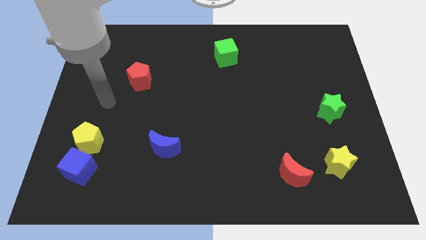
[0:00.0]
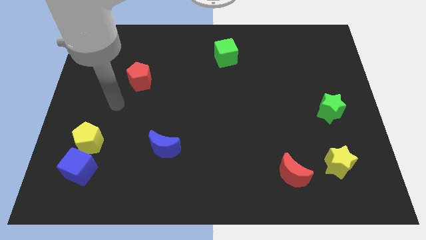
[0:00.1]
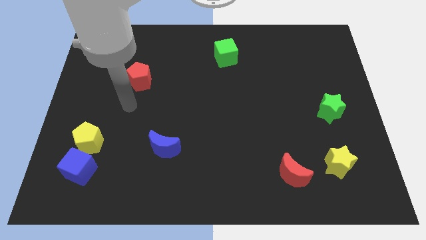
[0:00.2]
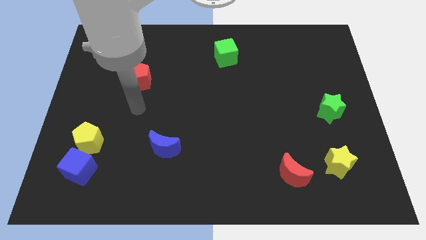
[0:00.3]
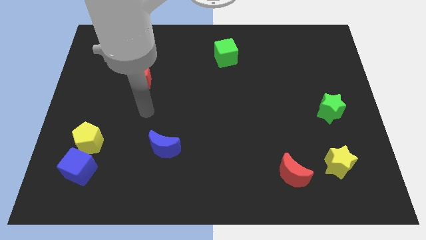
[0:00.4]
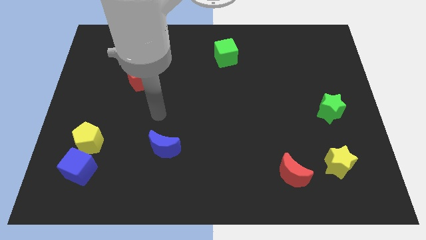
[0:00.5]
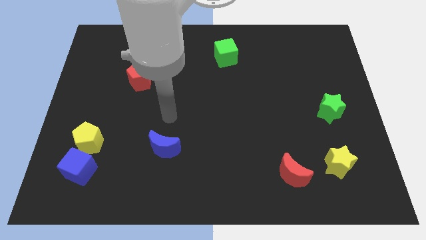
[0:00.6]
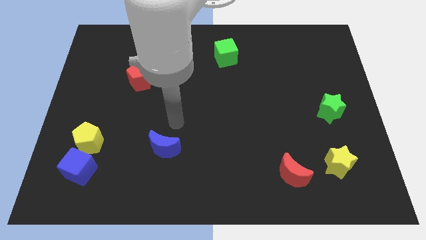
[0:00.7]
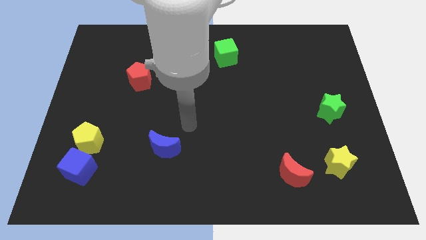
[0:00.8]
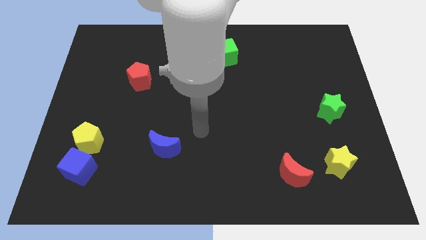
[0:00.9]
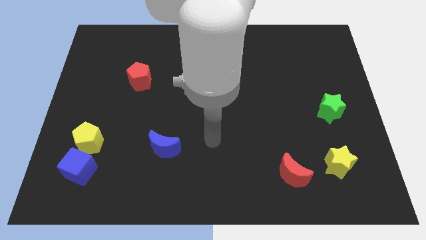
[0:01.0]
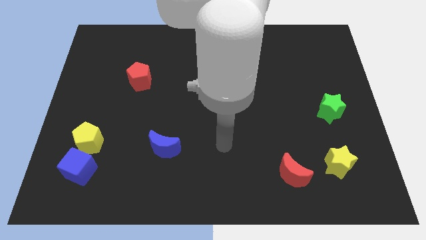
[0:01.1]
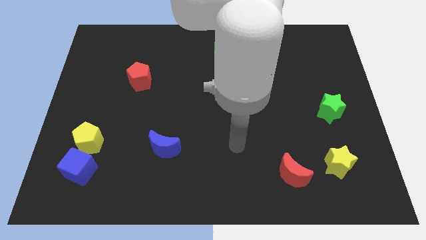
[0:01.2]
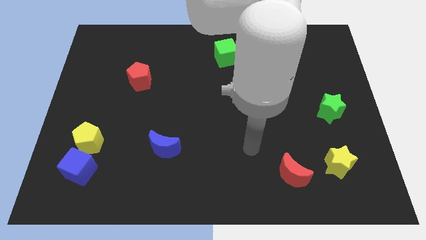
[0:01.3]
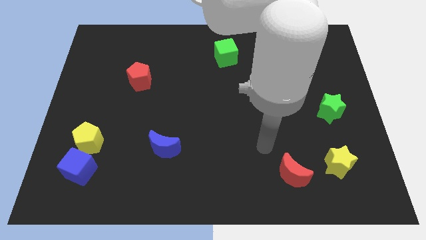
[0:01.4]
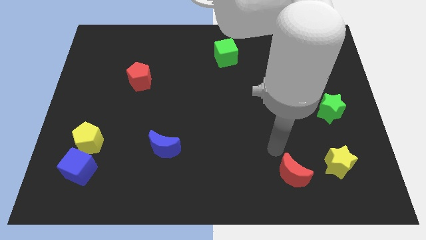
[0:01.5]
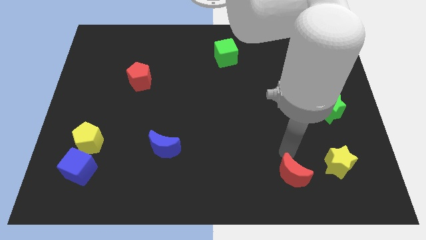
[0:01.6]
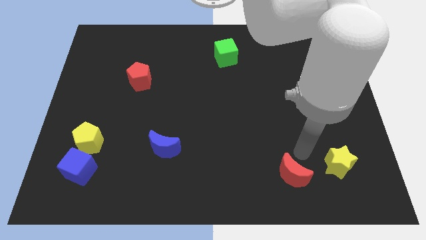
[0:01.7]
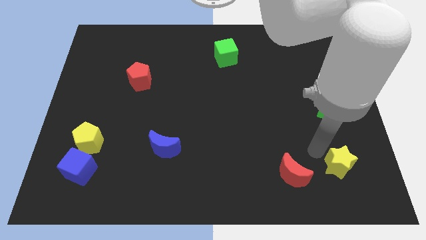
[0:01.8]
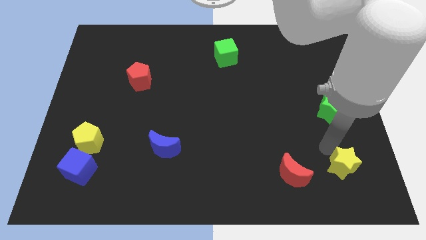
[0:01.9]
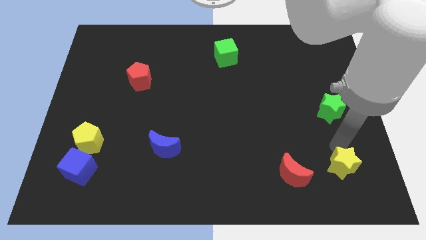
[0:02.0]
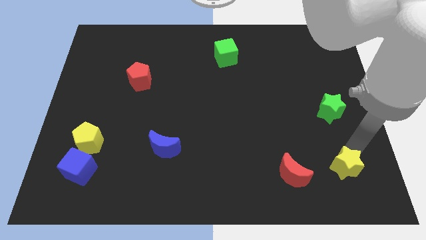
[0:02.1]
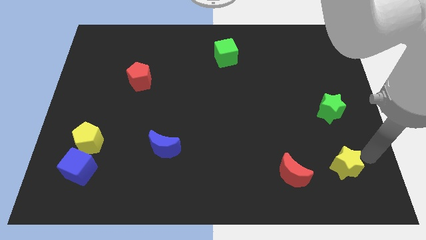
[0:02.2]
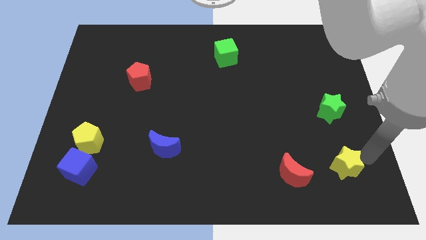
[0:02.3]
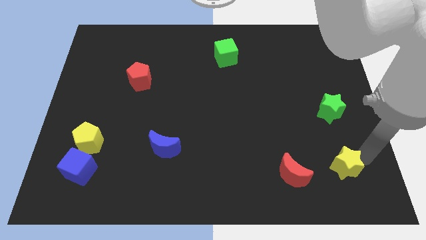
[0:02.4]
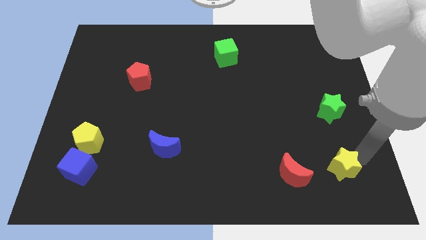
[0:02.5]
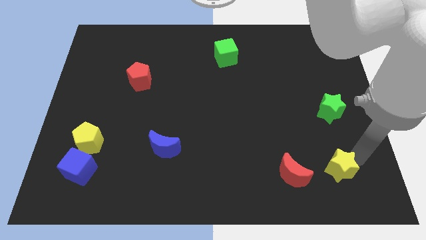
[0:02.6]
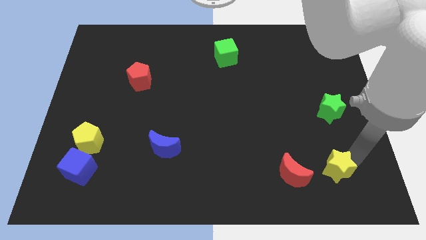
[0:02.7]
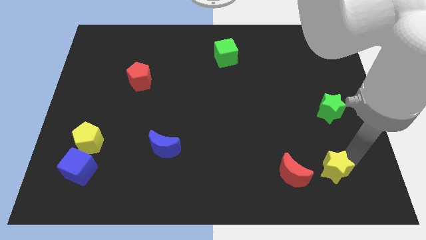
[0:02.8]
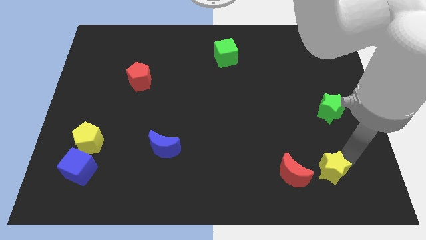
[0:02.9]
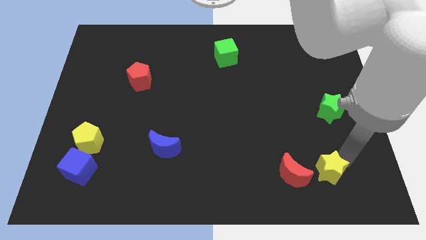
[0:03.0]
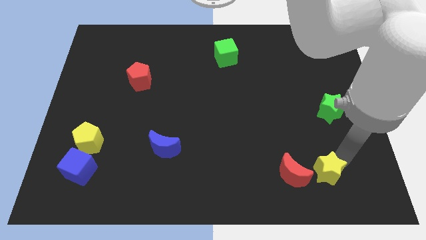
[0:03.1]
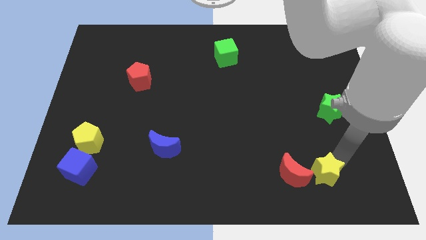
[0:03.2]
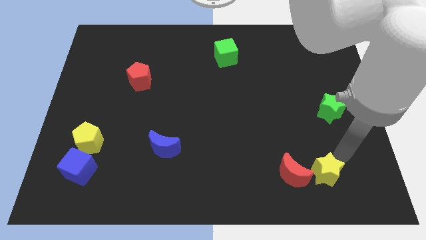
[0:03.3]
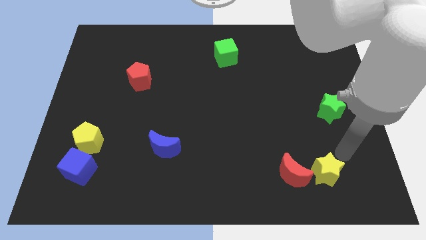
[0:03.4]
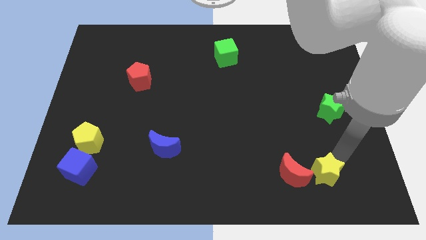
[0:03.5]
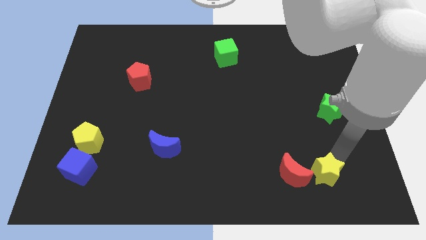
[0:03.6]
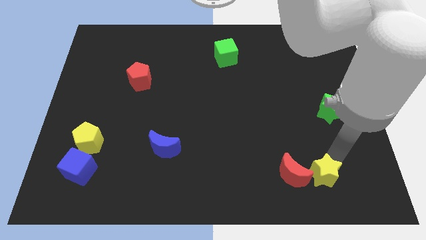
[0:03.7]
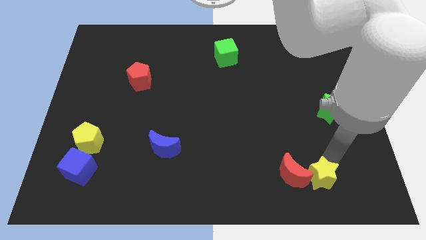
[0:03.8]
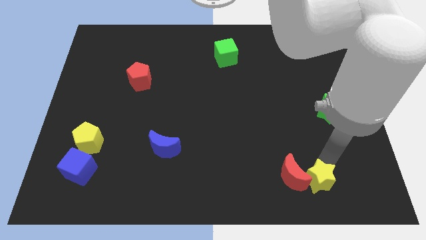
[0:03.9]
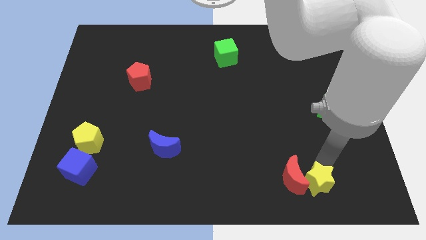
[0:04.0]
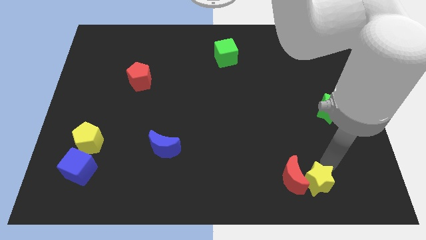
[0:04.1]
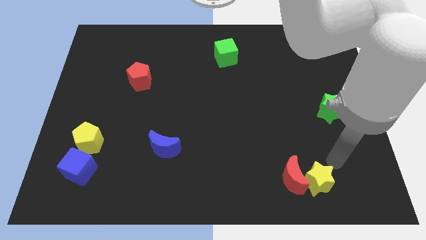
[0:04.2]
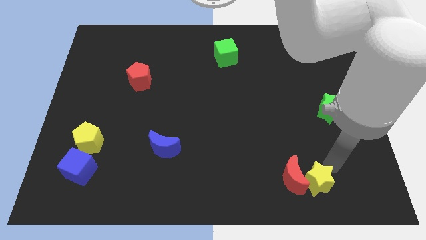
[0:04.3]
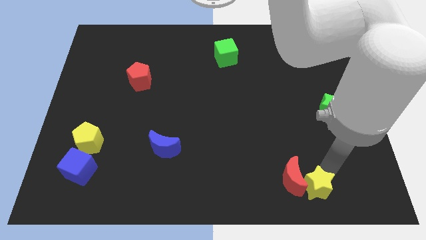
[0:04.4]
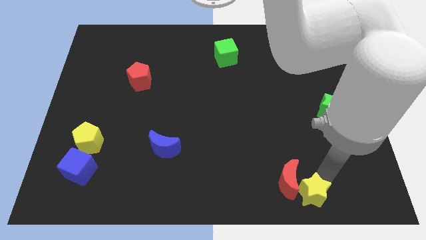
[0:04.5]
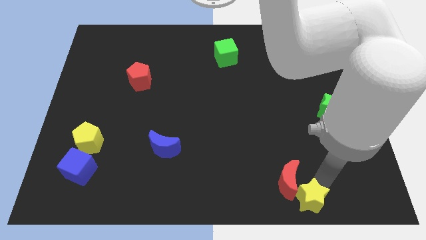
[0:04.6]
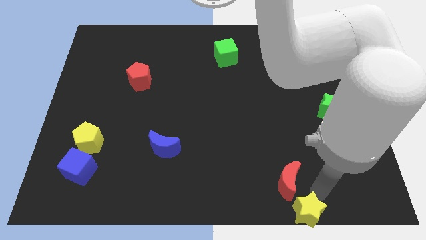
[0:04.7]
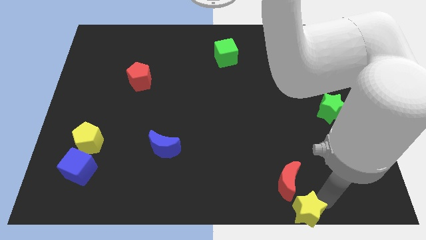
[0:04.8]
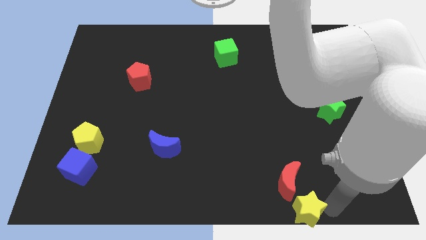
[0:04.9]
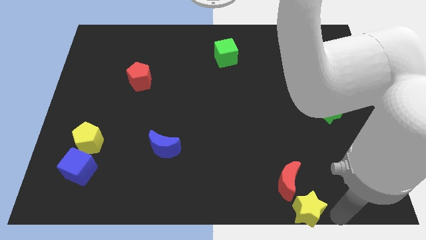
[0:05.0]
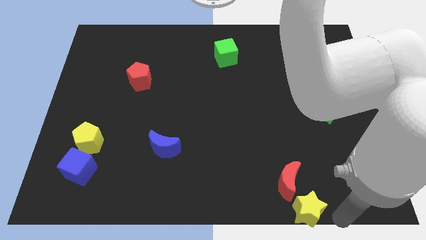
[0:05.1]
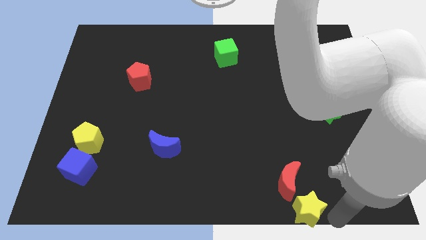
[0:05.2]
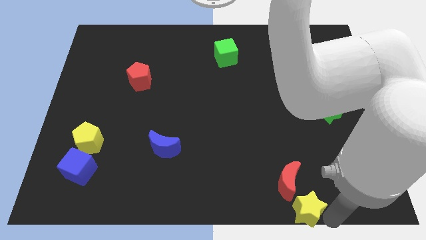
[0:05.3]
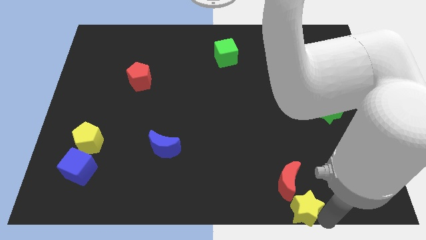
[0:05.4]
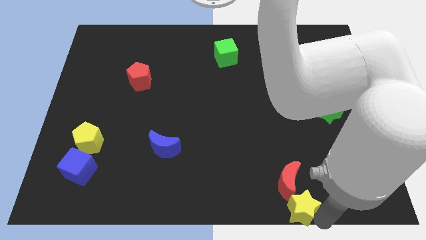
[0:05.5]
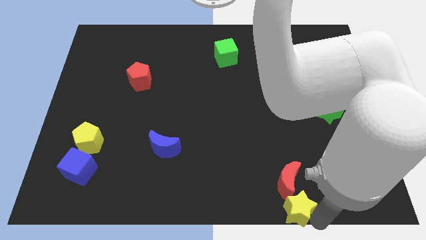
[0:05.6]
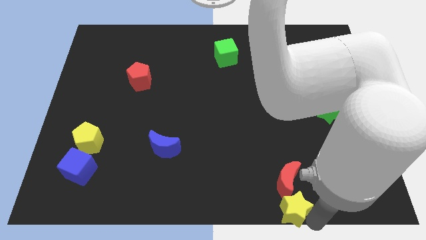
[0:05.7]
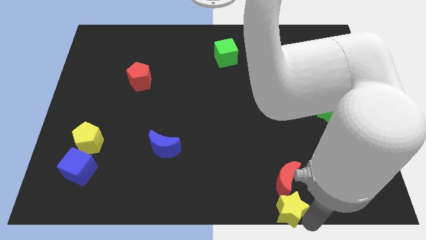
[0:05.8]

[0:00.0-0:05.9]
put the yellow star to the bottom
